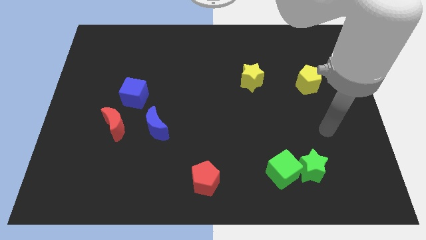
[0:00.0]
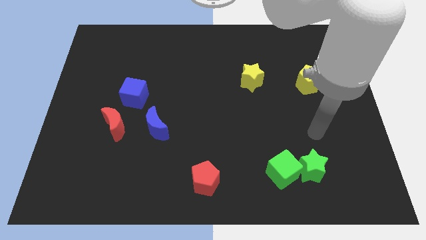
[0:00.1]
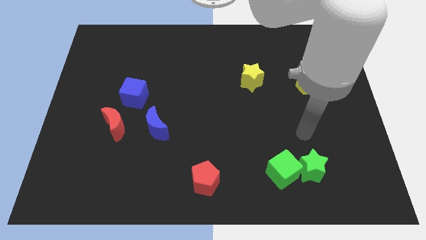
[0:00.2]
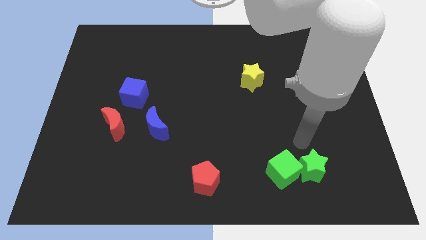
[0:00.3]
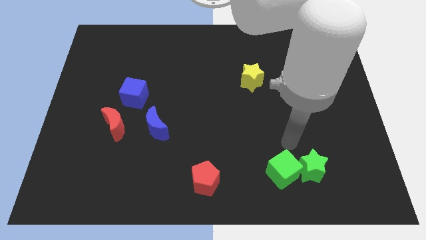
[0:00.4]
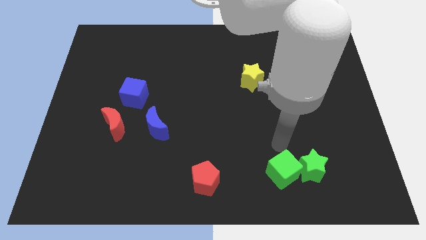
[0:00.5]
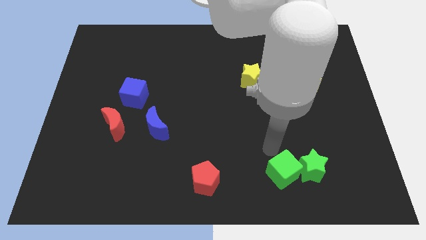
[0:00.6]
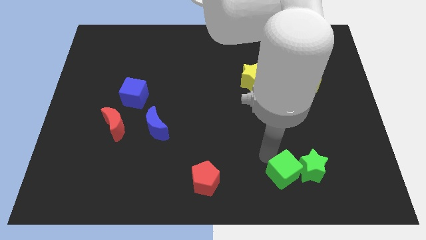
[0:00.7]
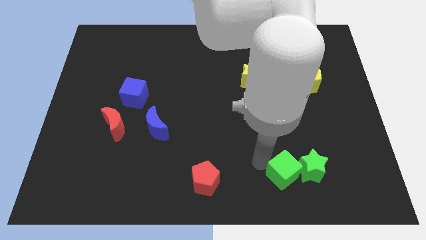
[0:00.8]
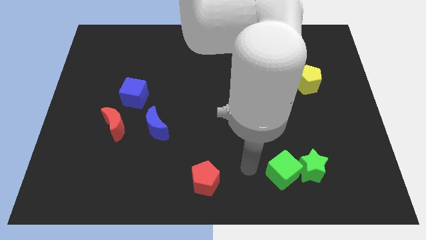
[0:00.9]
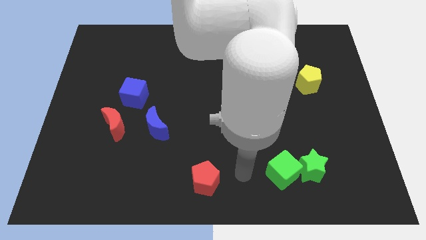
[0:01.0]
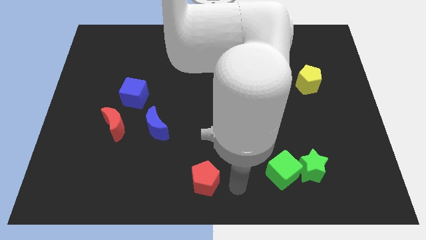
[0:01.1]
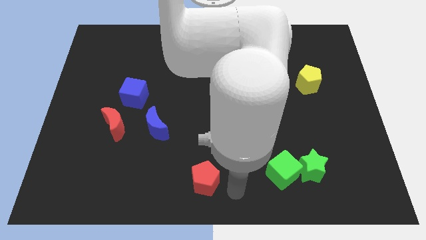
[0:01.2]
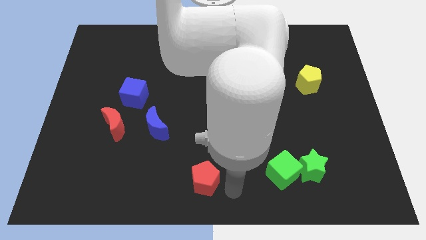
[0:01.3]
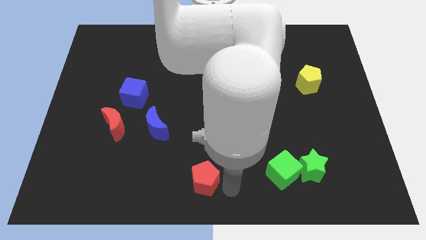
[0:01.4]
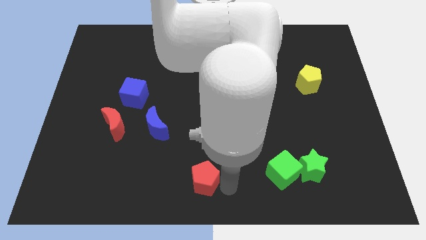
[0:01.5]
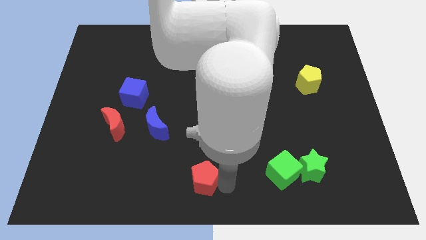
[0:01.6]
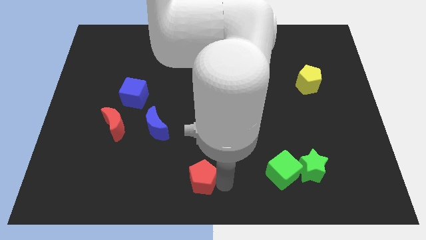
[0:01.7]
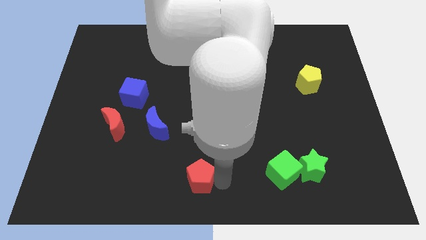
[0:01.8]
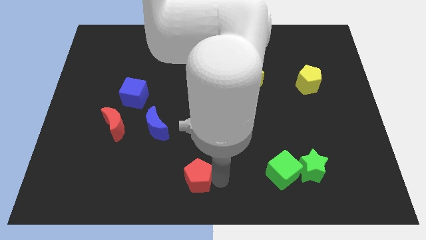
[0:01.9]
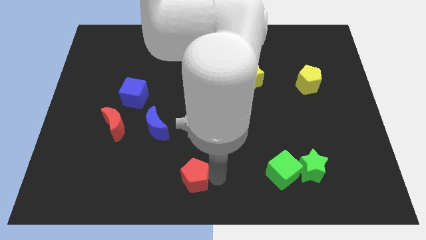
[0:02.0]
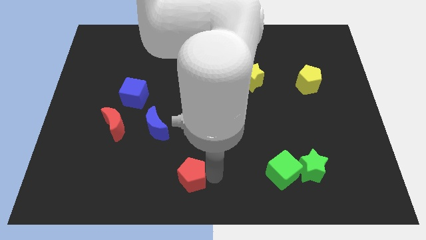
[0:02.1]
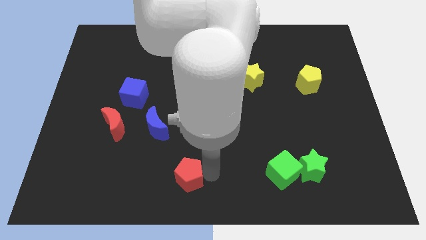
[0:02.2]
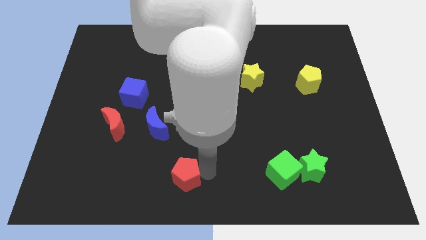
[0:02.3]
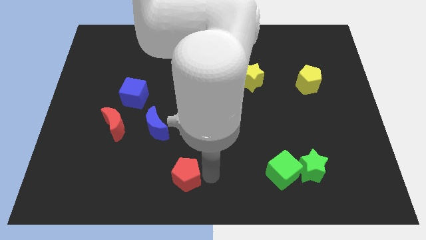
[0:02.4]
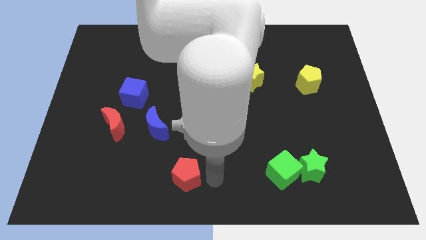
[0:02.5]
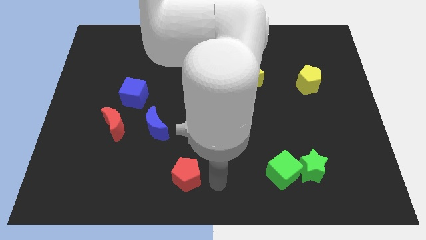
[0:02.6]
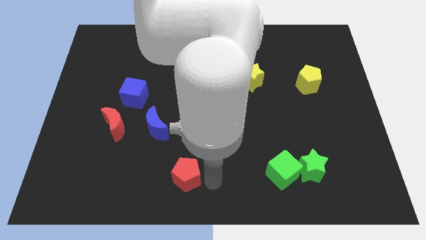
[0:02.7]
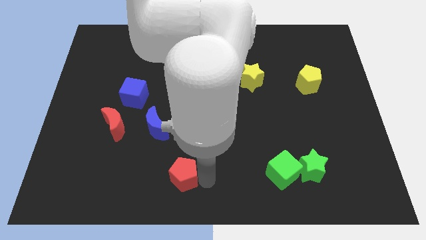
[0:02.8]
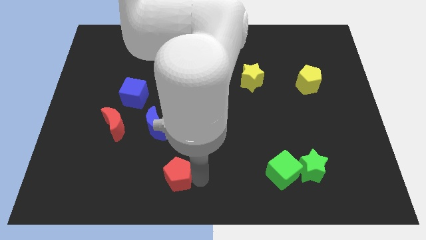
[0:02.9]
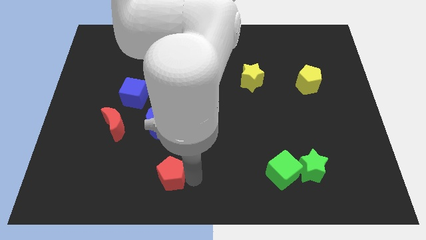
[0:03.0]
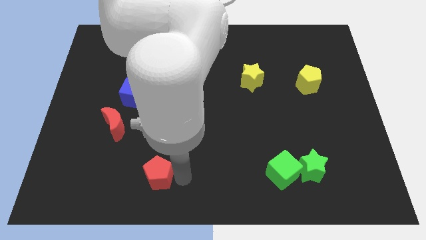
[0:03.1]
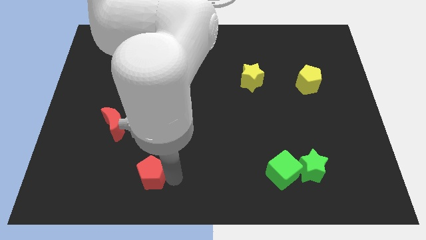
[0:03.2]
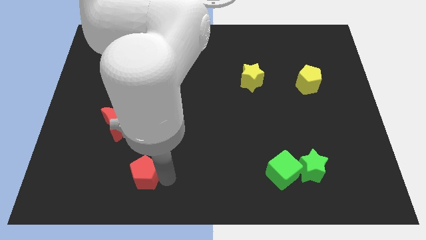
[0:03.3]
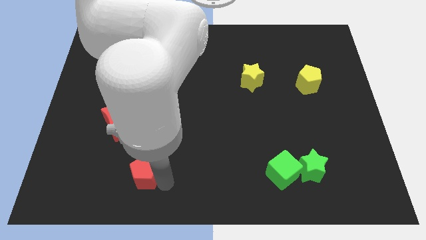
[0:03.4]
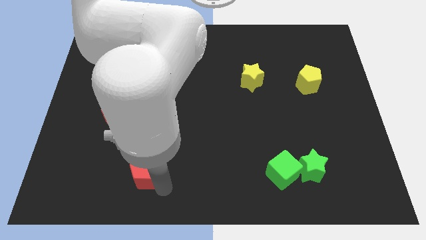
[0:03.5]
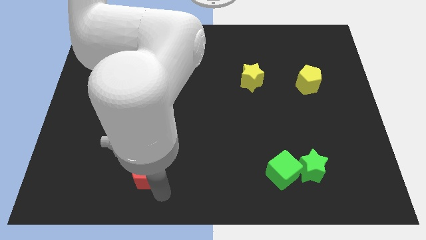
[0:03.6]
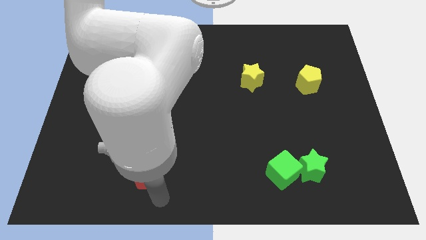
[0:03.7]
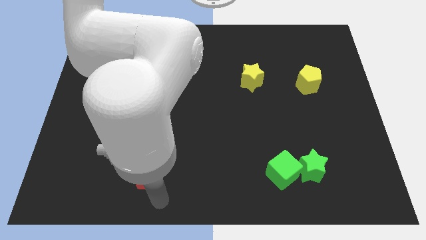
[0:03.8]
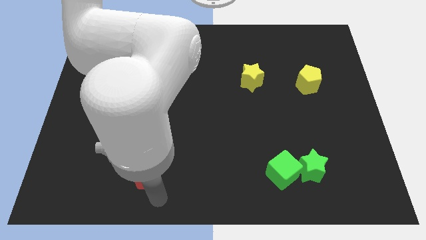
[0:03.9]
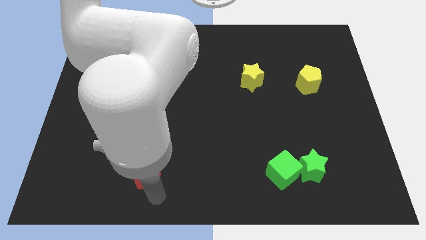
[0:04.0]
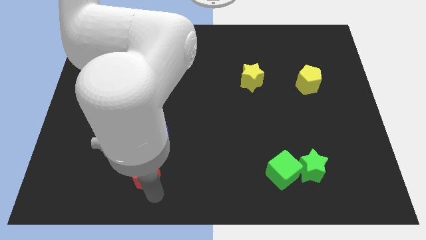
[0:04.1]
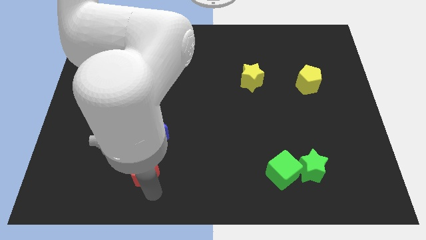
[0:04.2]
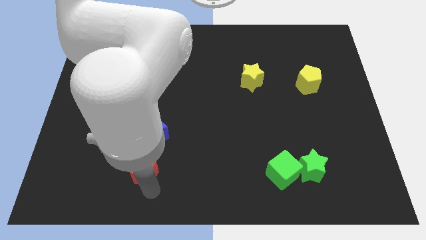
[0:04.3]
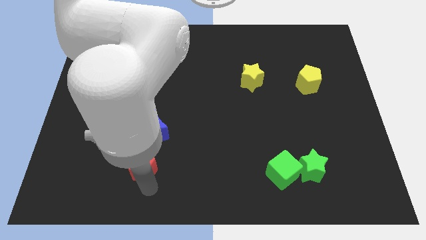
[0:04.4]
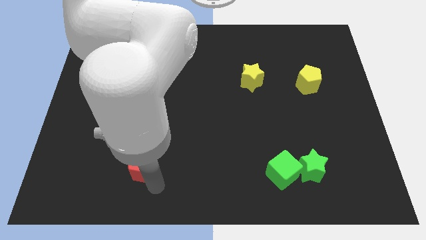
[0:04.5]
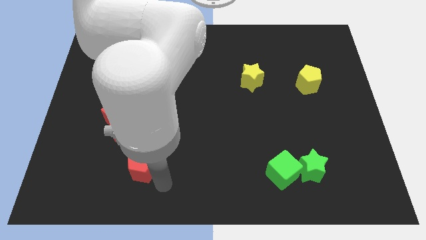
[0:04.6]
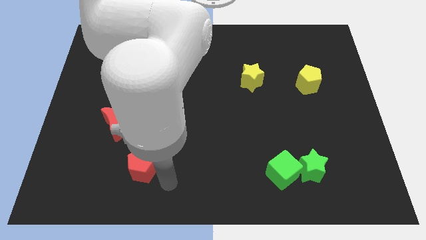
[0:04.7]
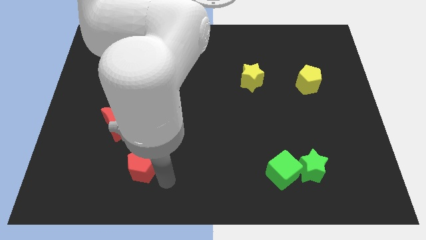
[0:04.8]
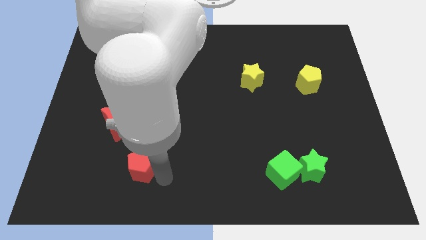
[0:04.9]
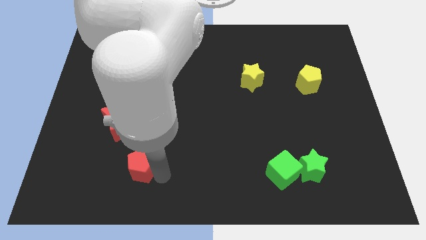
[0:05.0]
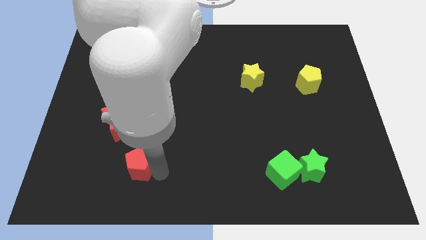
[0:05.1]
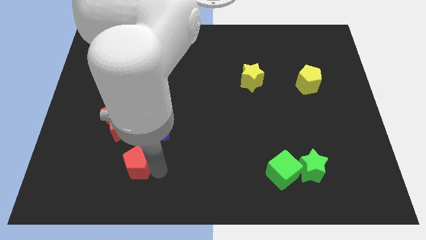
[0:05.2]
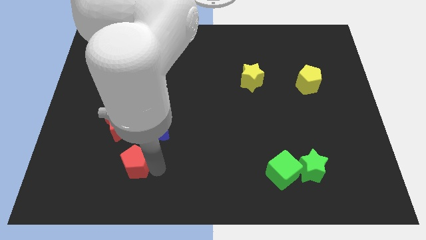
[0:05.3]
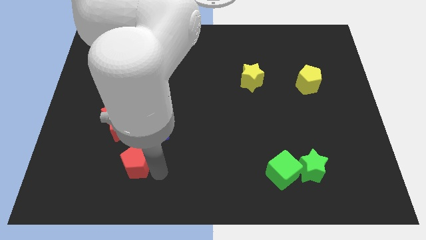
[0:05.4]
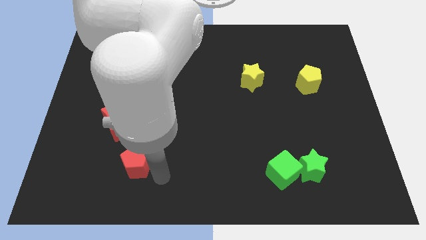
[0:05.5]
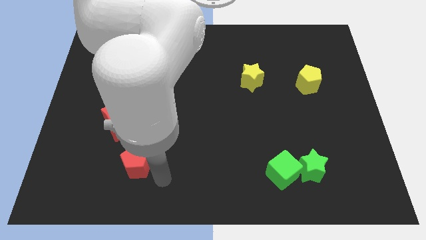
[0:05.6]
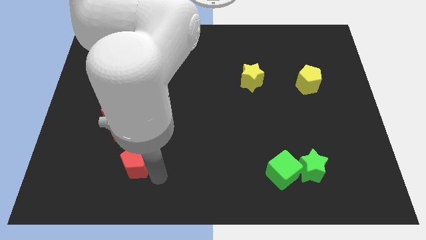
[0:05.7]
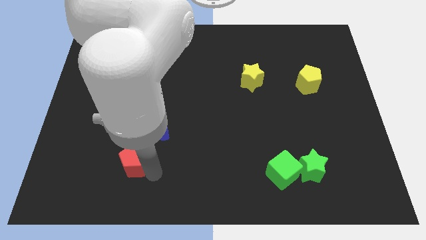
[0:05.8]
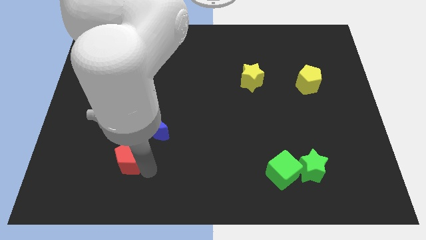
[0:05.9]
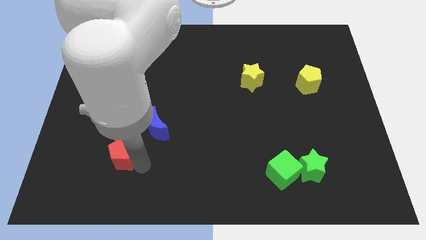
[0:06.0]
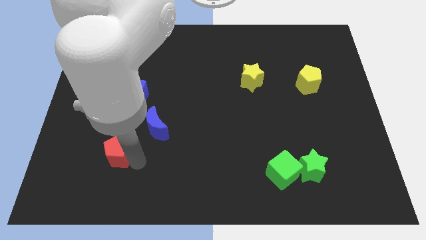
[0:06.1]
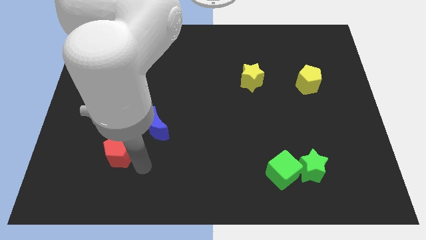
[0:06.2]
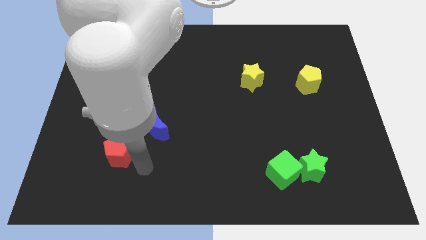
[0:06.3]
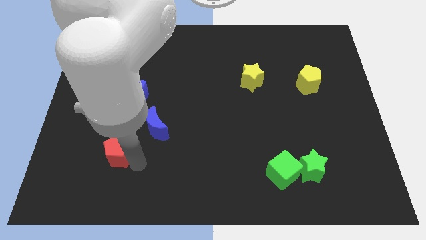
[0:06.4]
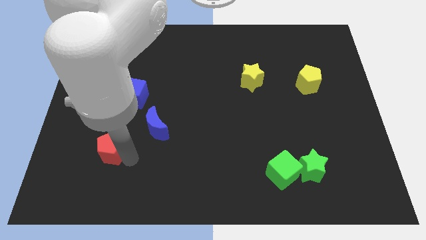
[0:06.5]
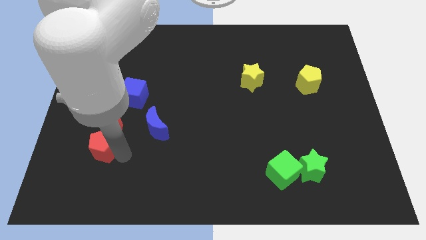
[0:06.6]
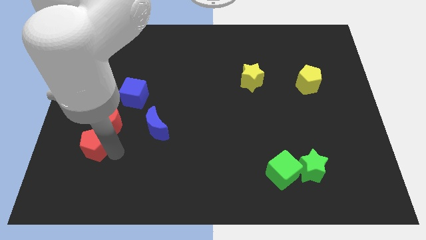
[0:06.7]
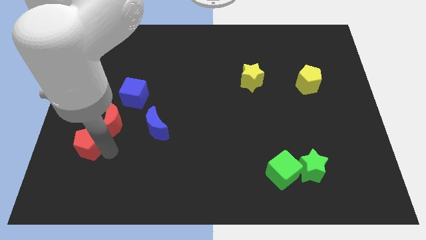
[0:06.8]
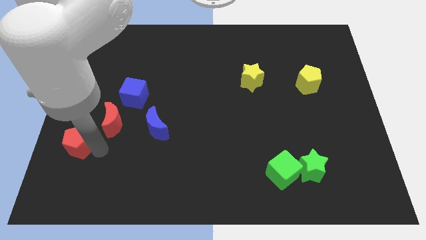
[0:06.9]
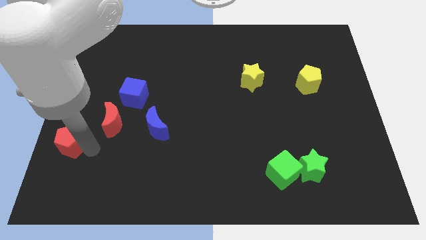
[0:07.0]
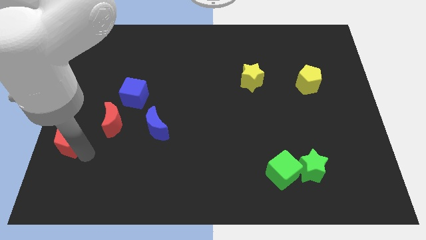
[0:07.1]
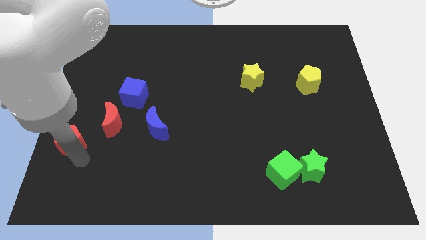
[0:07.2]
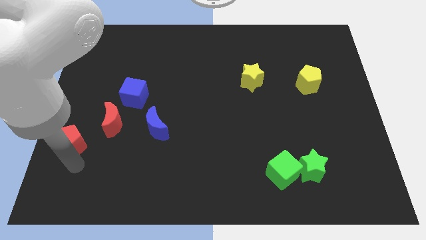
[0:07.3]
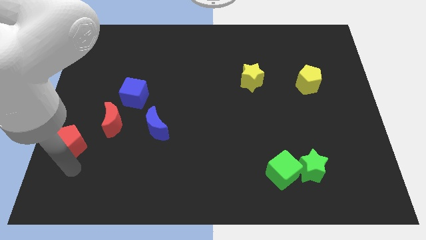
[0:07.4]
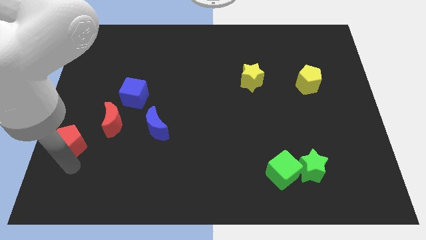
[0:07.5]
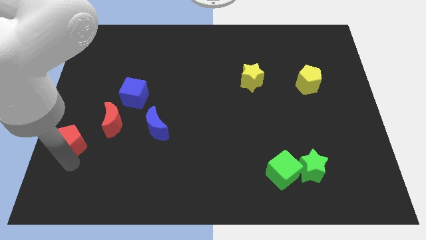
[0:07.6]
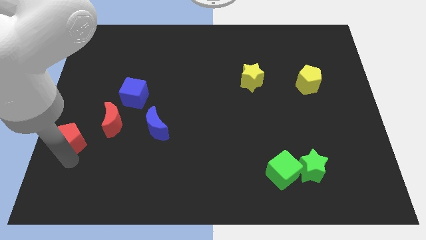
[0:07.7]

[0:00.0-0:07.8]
put the red pentagon to the left side of the board
